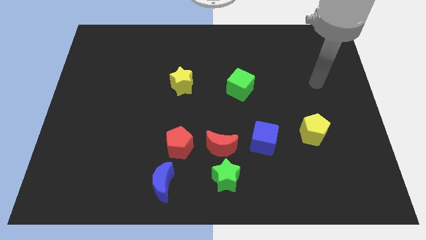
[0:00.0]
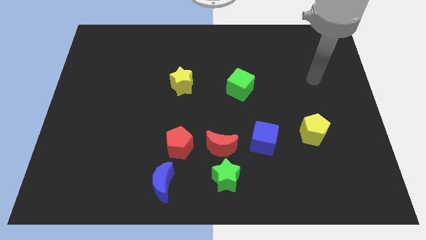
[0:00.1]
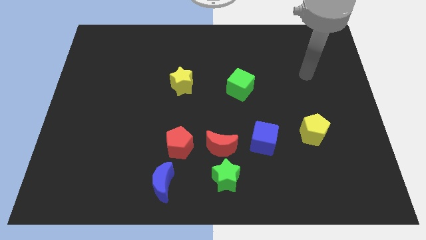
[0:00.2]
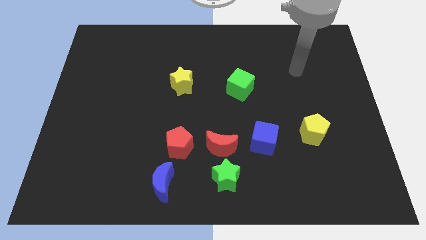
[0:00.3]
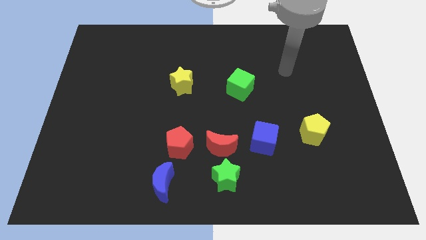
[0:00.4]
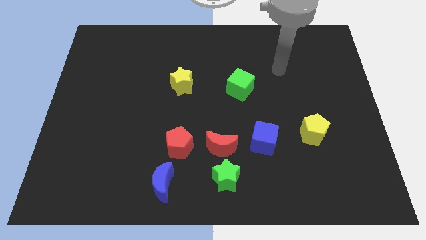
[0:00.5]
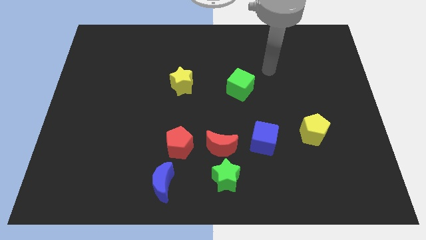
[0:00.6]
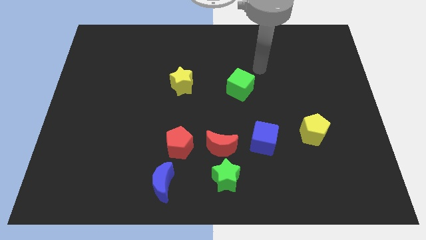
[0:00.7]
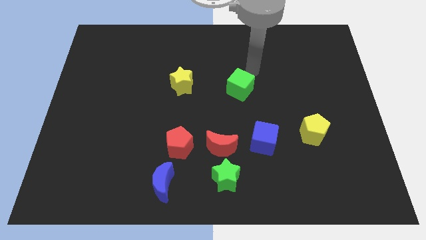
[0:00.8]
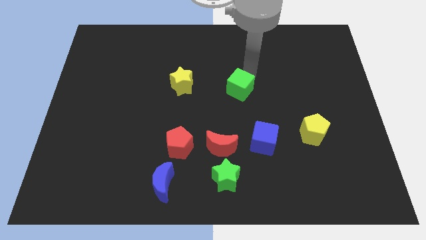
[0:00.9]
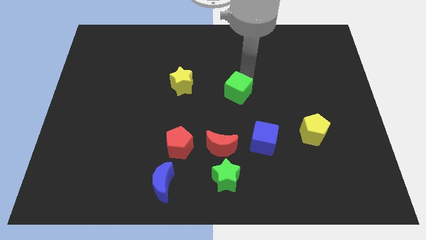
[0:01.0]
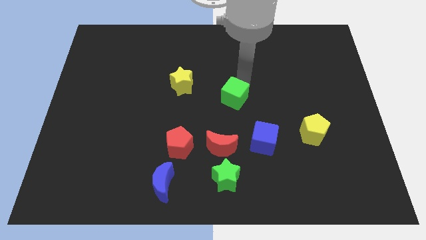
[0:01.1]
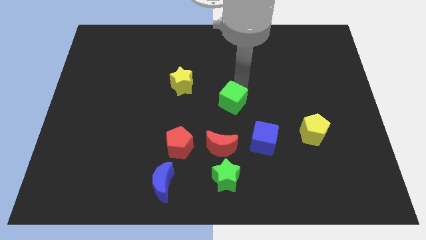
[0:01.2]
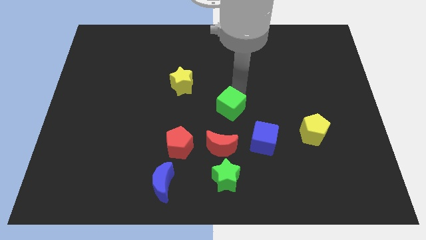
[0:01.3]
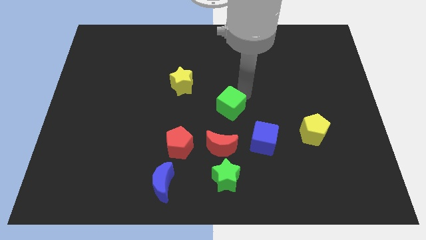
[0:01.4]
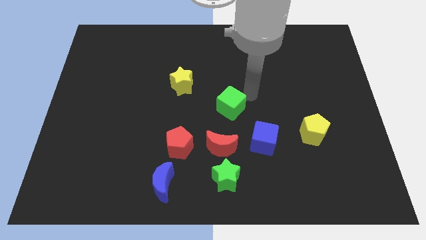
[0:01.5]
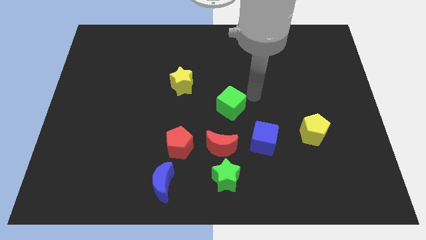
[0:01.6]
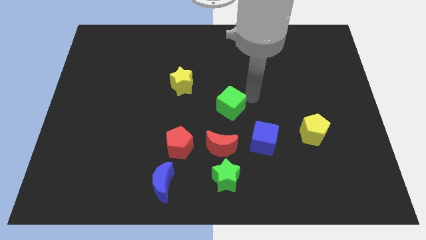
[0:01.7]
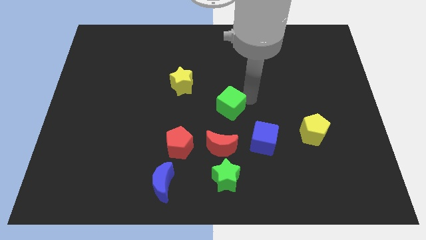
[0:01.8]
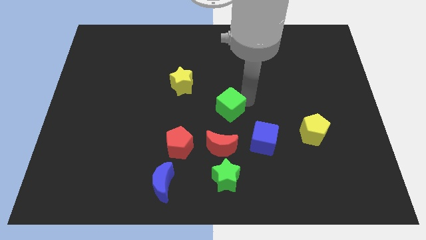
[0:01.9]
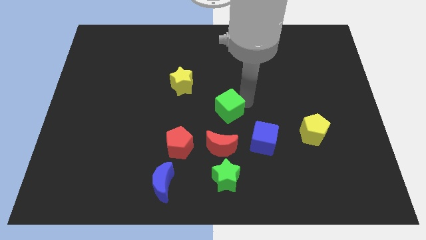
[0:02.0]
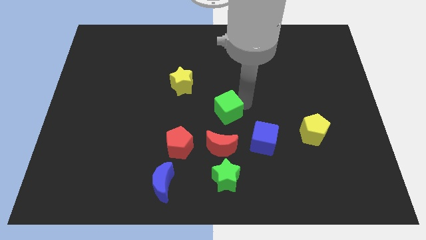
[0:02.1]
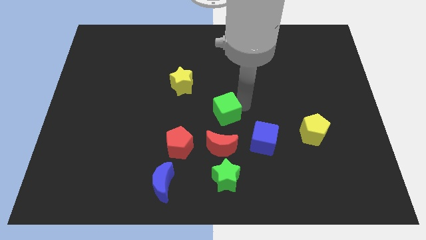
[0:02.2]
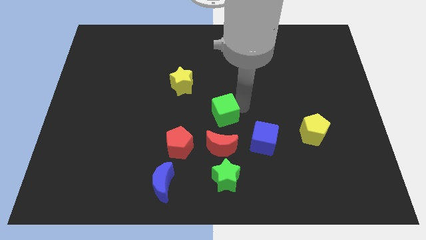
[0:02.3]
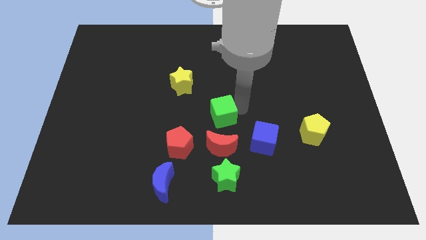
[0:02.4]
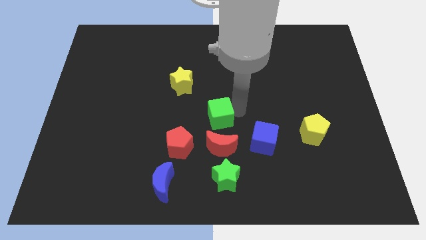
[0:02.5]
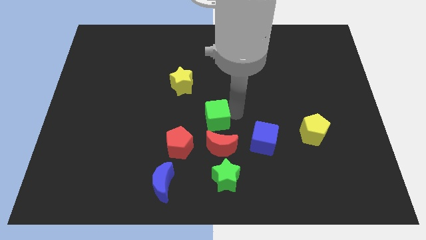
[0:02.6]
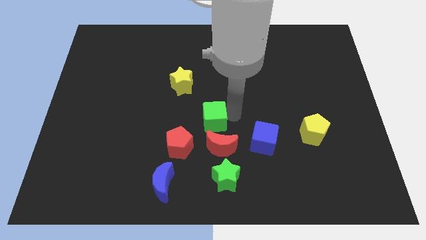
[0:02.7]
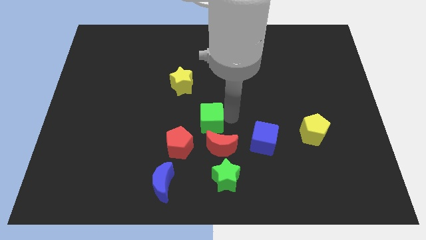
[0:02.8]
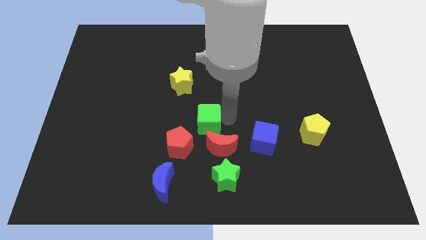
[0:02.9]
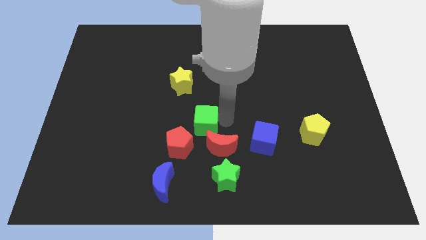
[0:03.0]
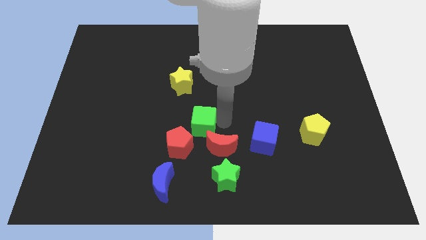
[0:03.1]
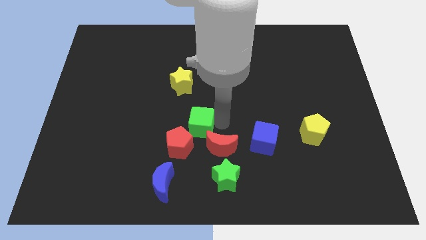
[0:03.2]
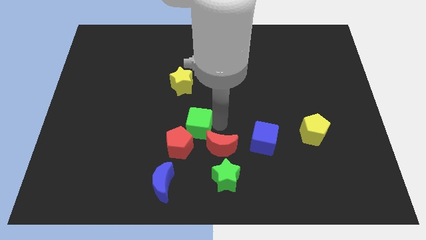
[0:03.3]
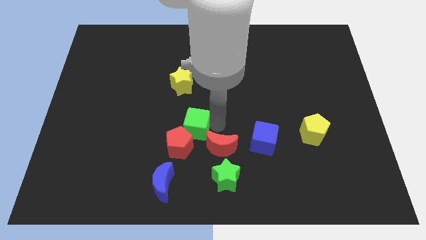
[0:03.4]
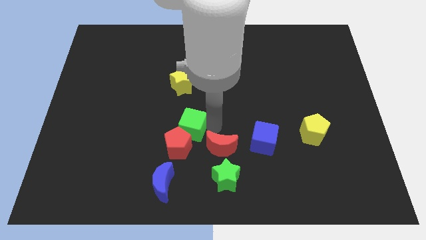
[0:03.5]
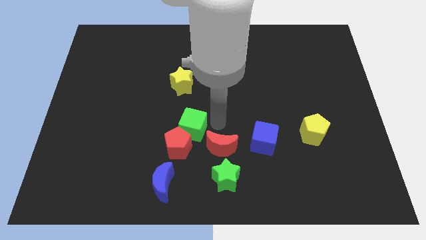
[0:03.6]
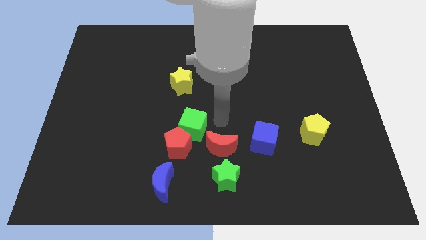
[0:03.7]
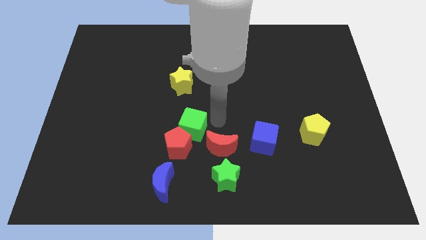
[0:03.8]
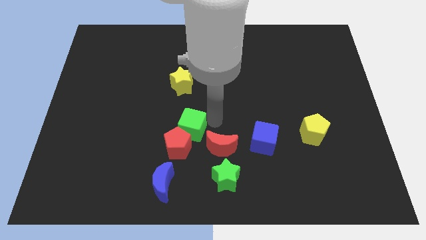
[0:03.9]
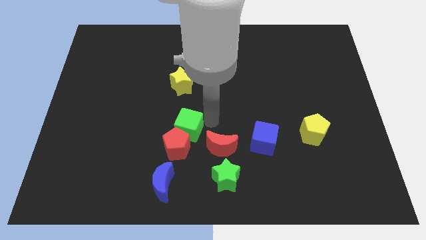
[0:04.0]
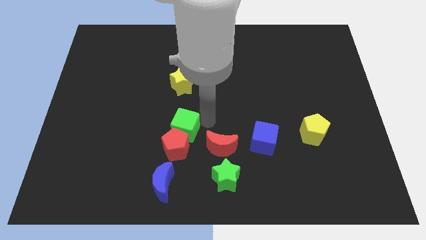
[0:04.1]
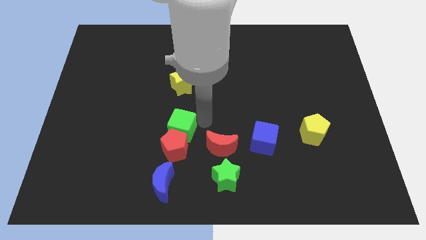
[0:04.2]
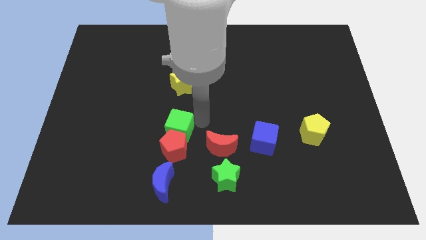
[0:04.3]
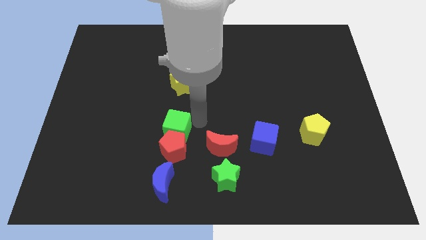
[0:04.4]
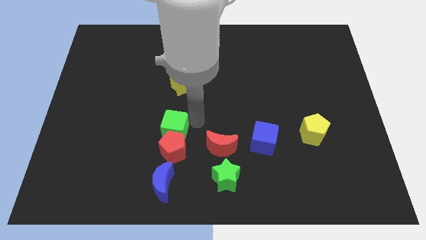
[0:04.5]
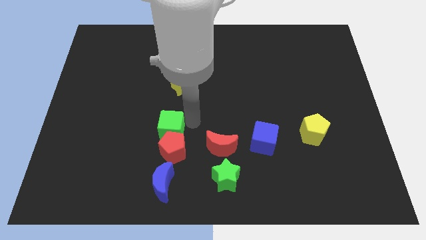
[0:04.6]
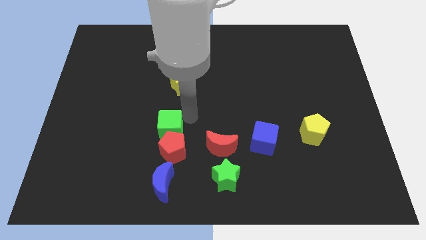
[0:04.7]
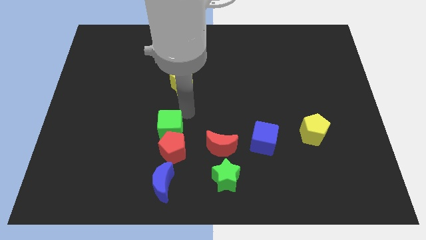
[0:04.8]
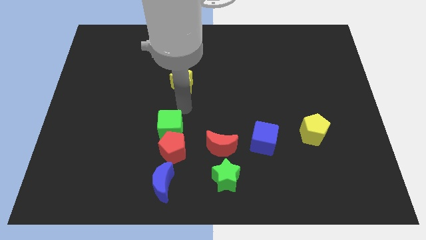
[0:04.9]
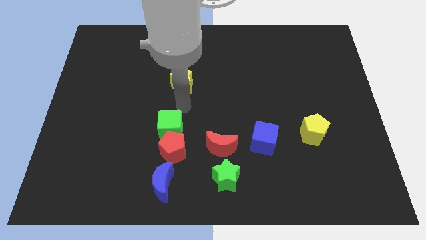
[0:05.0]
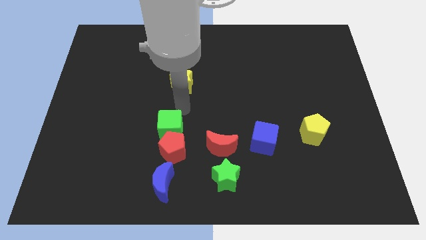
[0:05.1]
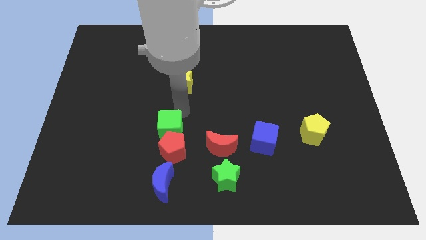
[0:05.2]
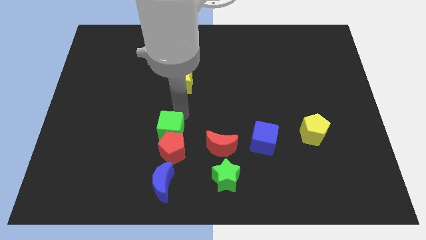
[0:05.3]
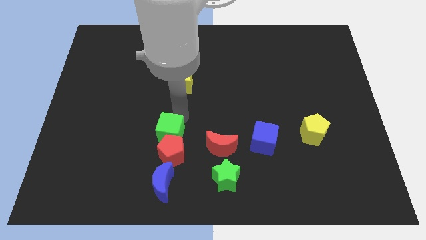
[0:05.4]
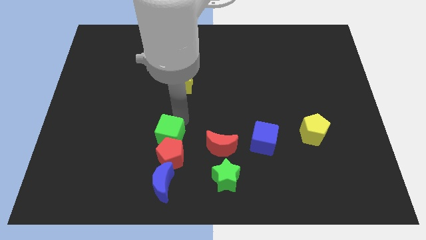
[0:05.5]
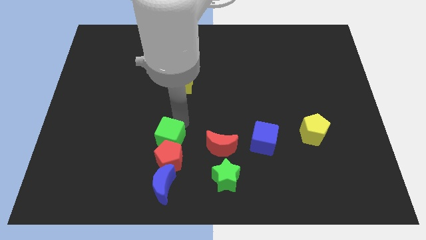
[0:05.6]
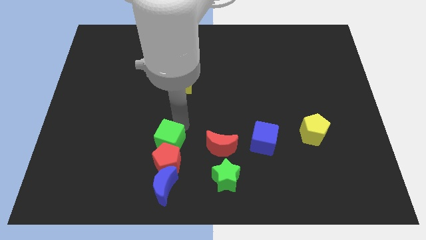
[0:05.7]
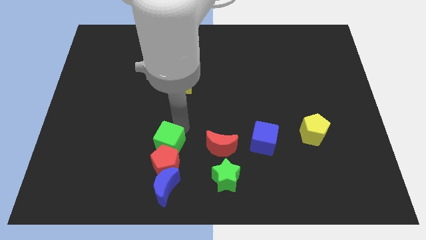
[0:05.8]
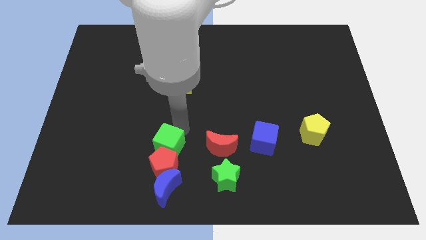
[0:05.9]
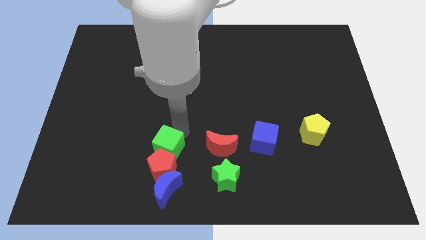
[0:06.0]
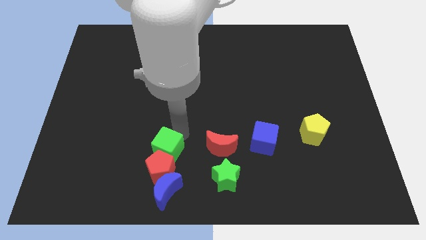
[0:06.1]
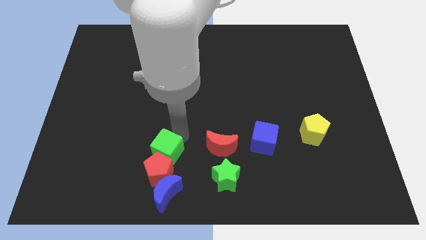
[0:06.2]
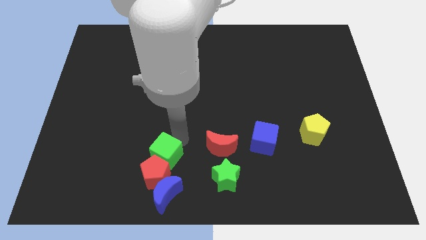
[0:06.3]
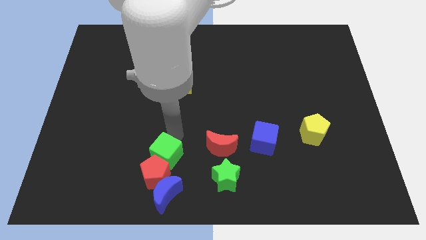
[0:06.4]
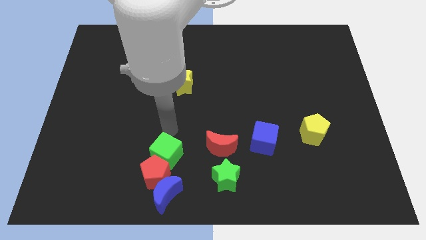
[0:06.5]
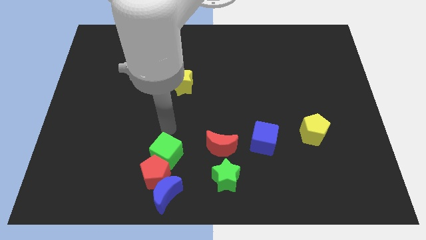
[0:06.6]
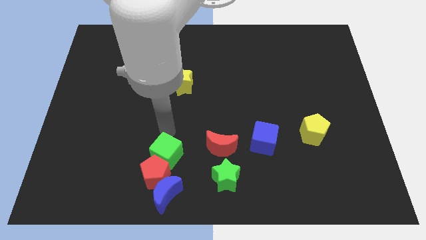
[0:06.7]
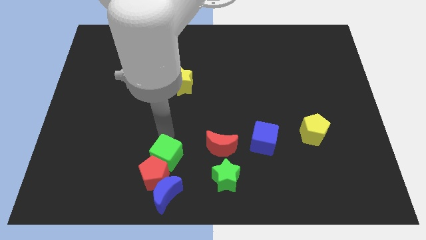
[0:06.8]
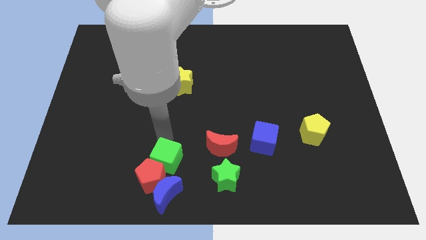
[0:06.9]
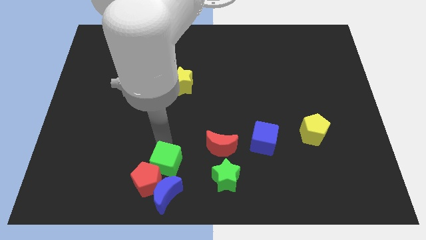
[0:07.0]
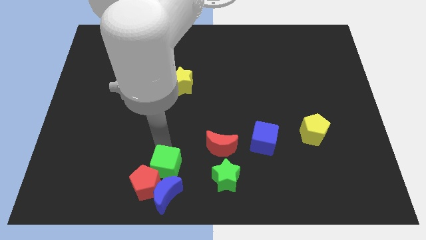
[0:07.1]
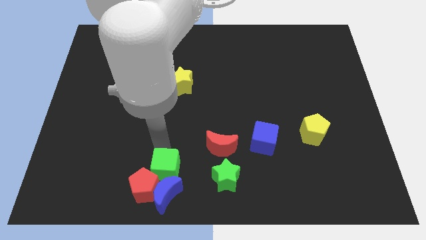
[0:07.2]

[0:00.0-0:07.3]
push the green cube next to the blue moon
